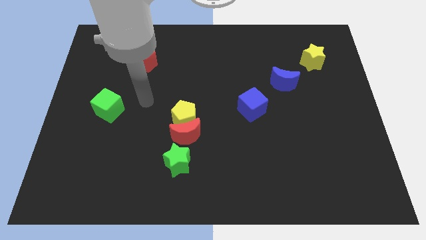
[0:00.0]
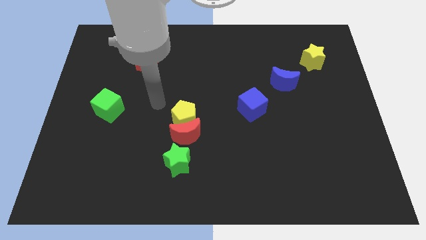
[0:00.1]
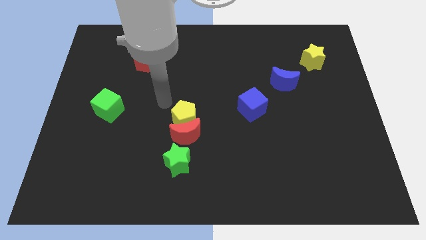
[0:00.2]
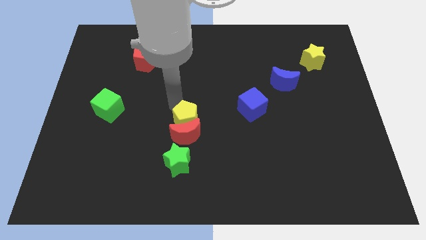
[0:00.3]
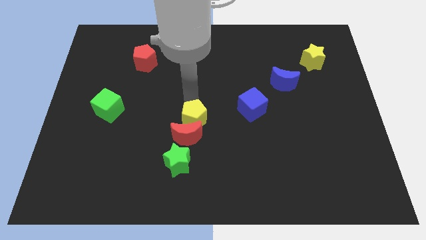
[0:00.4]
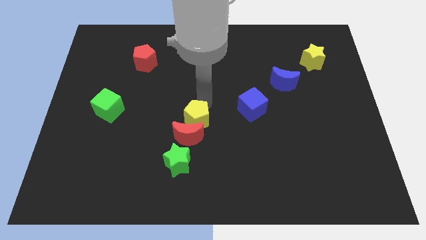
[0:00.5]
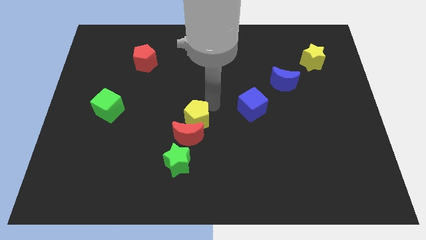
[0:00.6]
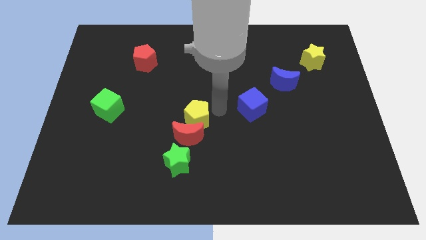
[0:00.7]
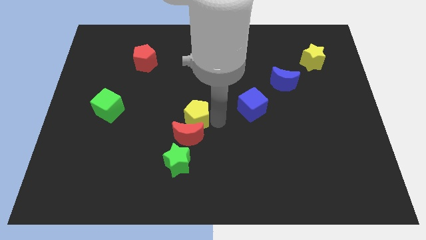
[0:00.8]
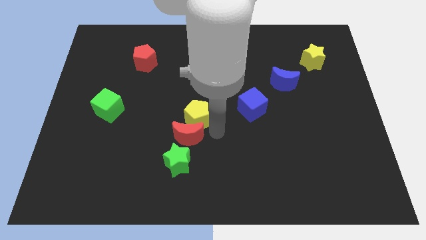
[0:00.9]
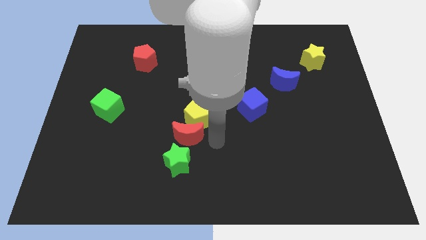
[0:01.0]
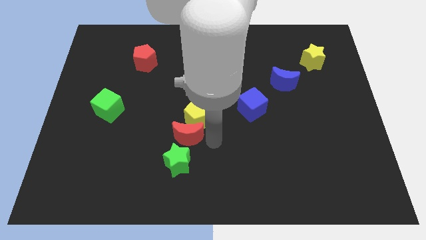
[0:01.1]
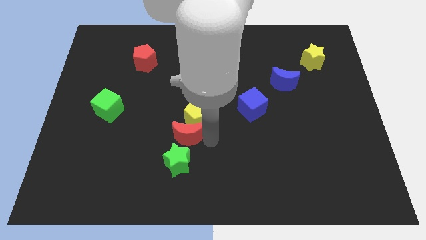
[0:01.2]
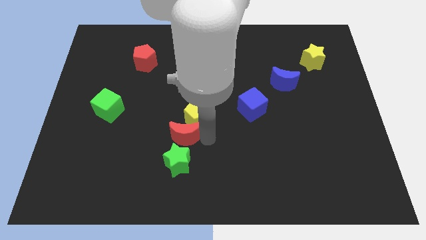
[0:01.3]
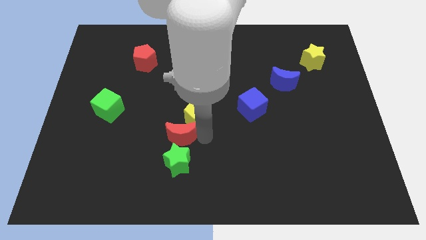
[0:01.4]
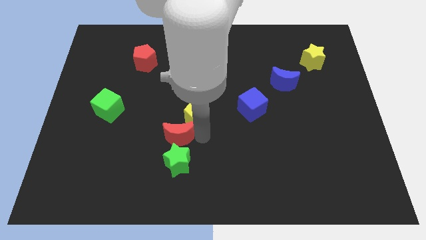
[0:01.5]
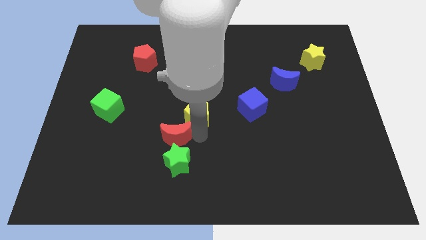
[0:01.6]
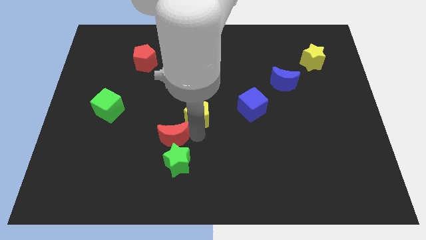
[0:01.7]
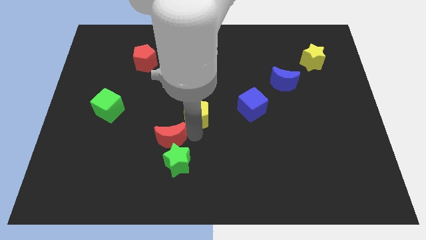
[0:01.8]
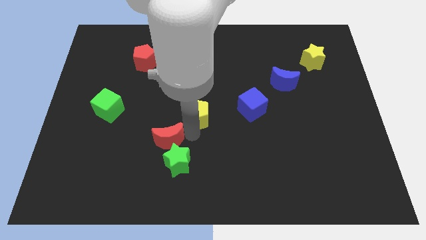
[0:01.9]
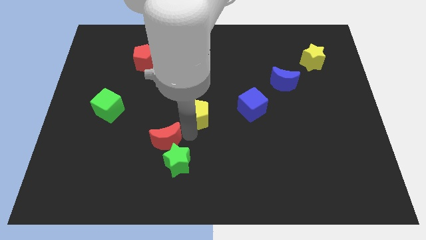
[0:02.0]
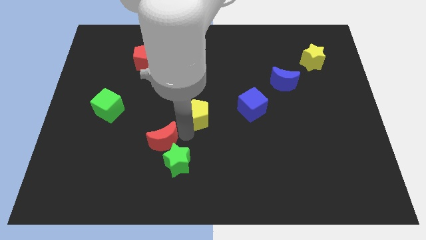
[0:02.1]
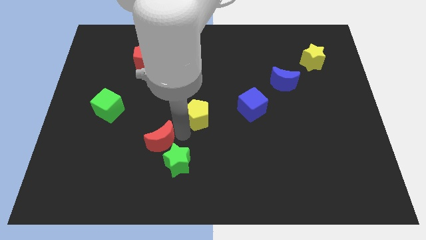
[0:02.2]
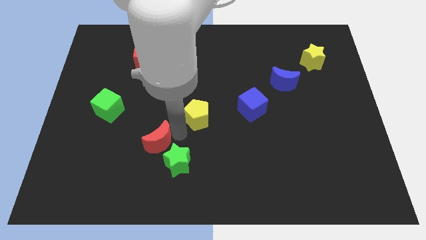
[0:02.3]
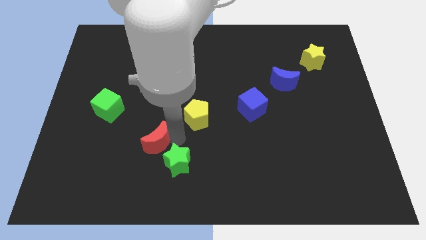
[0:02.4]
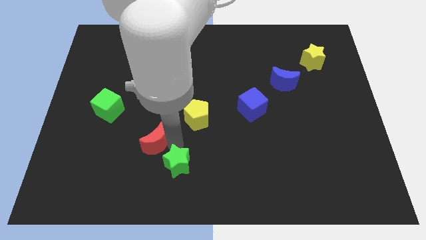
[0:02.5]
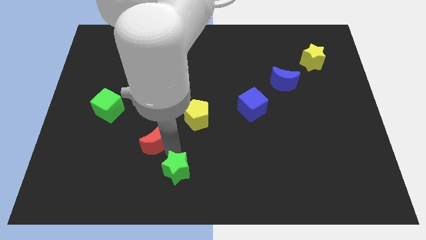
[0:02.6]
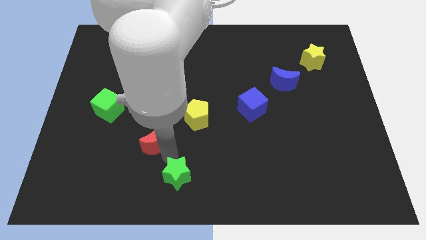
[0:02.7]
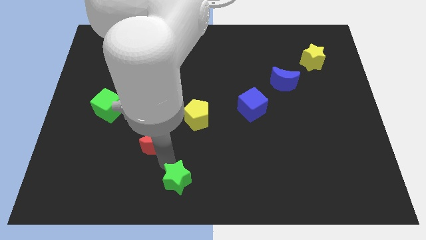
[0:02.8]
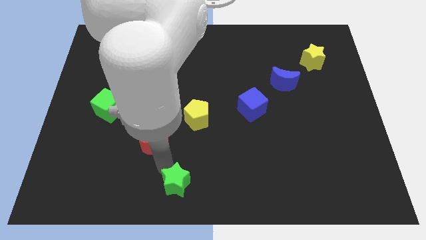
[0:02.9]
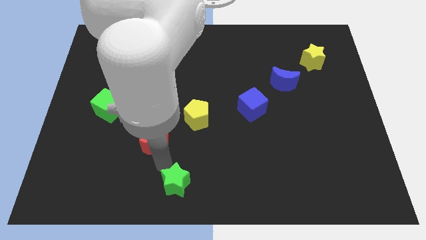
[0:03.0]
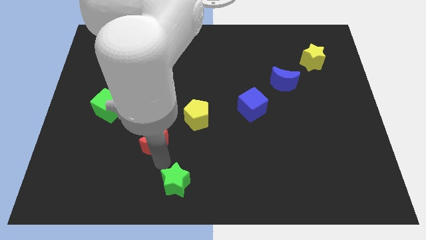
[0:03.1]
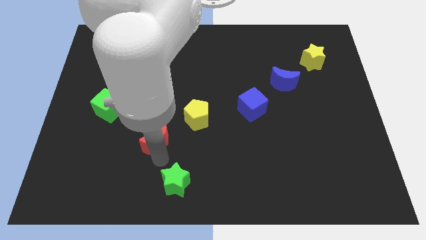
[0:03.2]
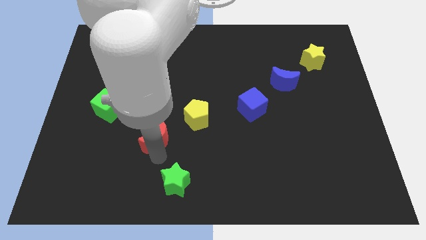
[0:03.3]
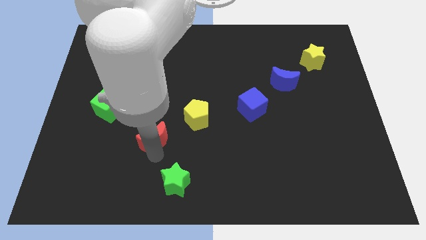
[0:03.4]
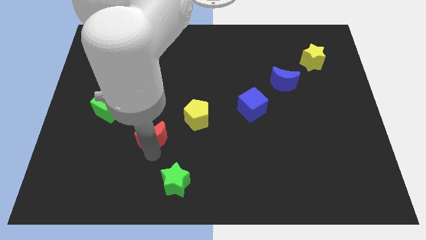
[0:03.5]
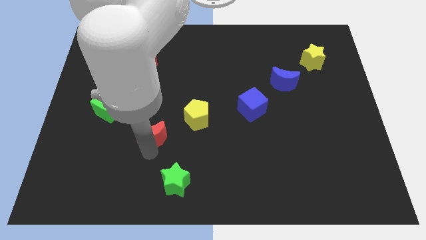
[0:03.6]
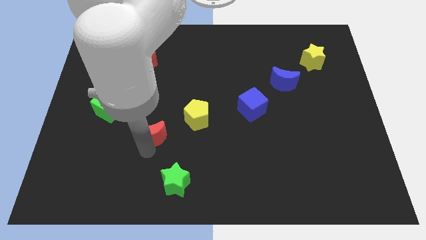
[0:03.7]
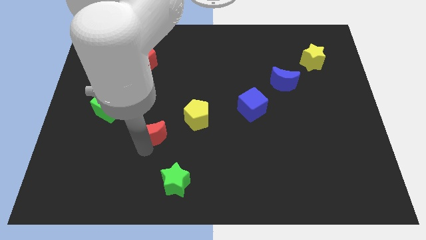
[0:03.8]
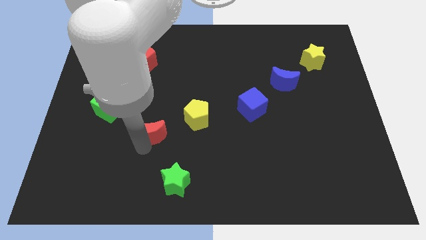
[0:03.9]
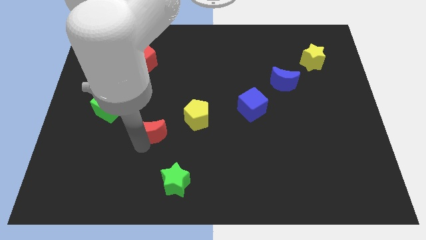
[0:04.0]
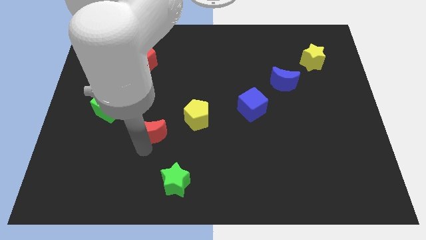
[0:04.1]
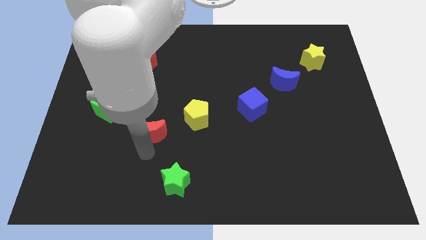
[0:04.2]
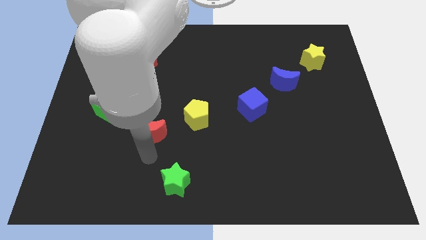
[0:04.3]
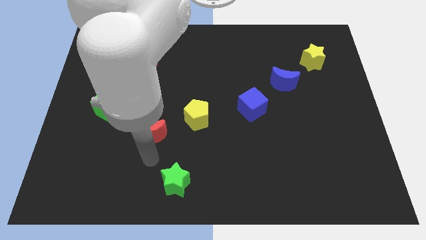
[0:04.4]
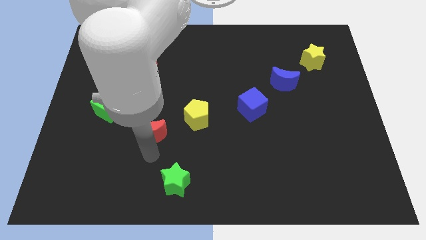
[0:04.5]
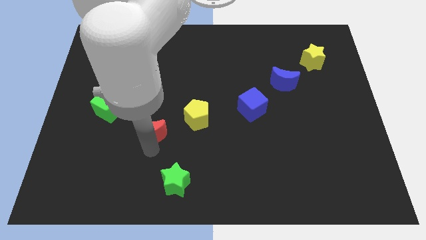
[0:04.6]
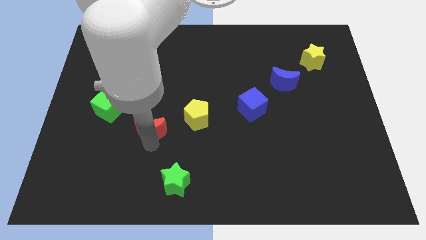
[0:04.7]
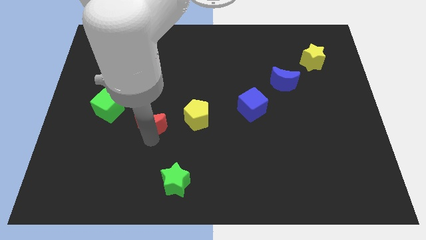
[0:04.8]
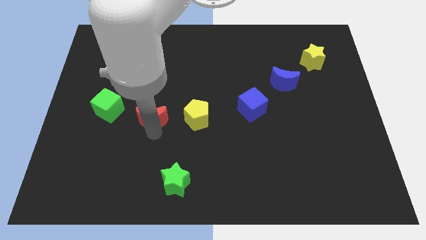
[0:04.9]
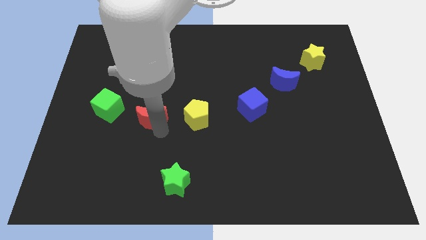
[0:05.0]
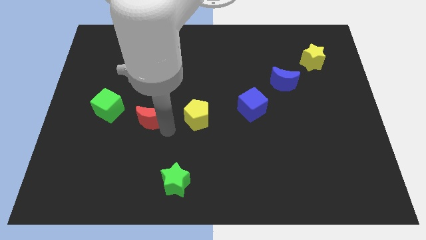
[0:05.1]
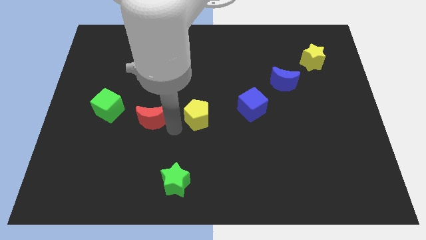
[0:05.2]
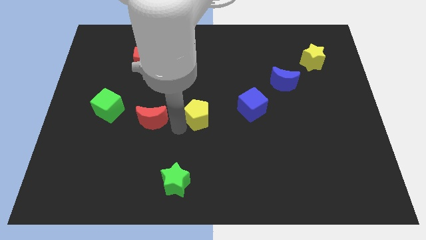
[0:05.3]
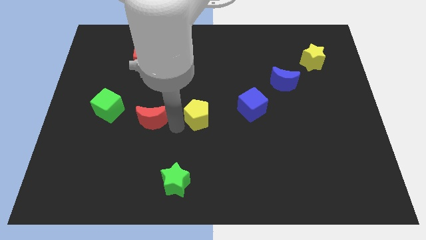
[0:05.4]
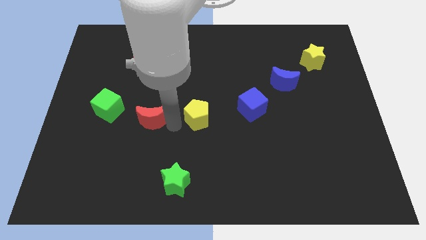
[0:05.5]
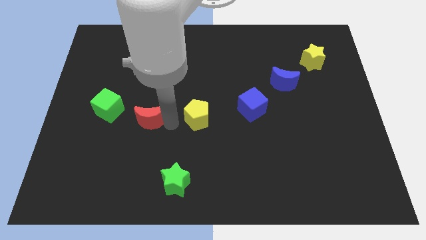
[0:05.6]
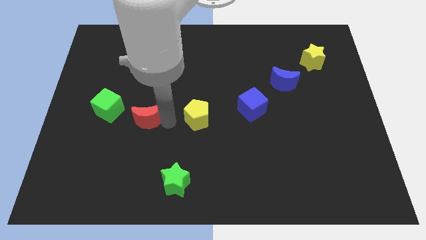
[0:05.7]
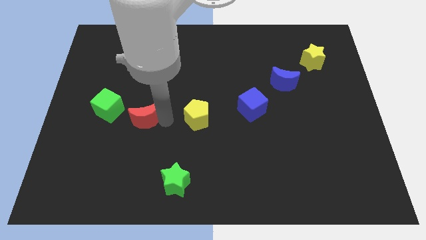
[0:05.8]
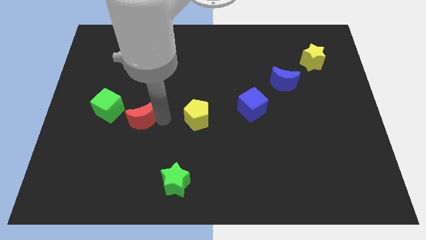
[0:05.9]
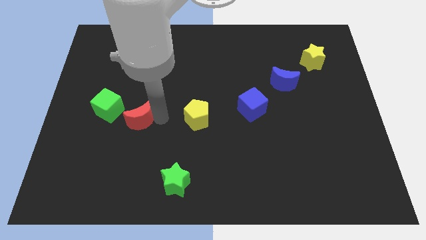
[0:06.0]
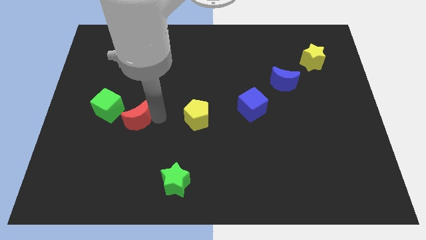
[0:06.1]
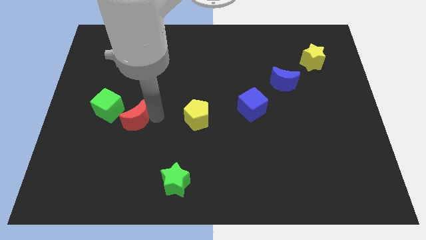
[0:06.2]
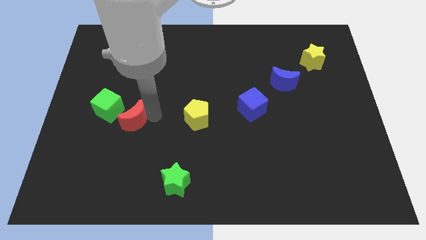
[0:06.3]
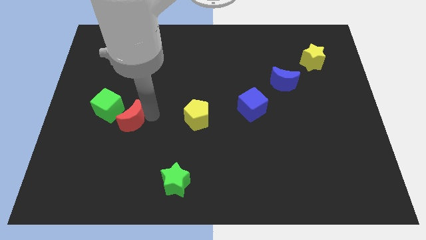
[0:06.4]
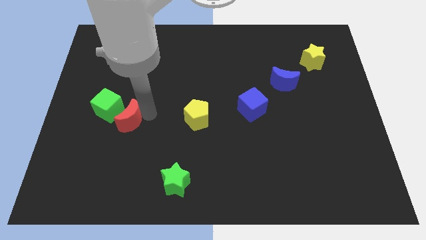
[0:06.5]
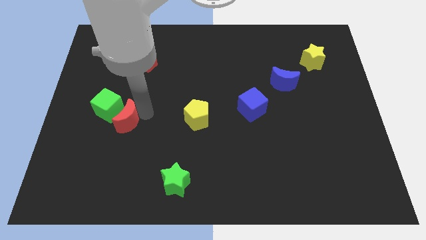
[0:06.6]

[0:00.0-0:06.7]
slide the red moon next to the green cube

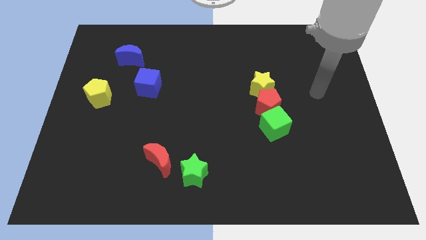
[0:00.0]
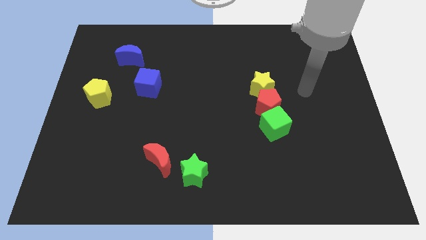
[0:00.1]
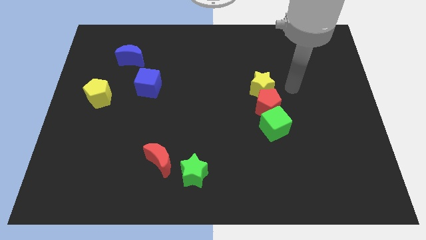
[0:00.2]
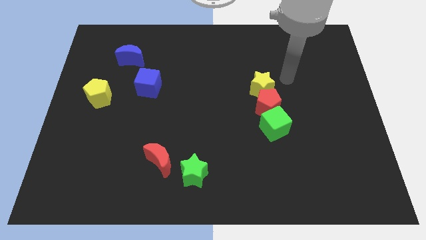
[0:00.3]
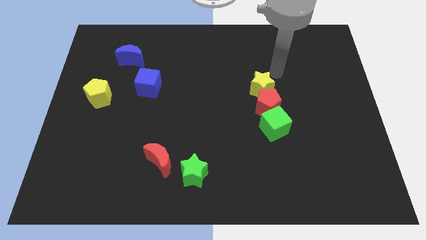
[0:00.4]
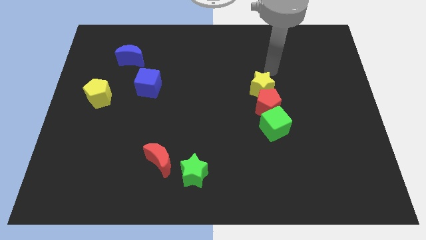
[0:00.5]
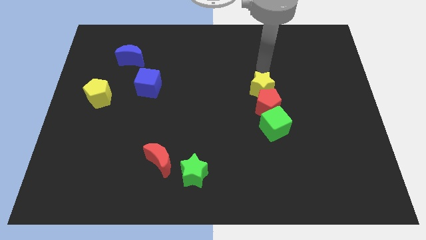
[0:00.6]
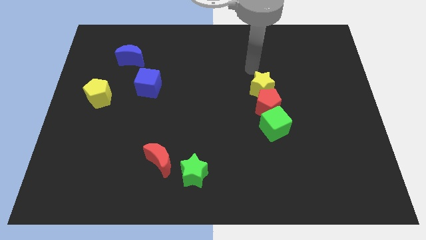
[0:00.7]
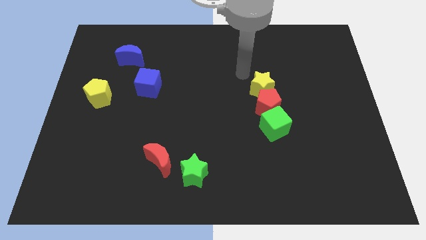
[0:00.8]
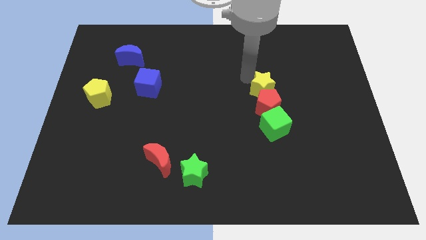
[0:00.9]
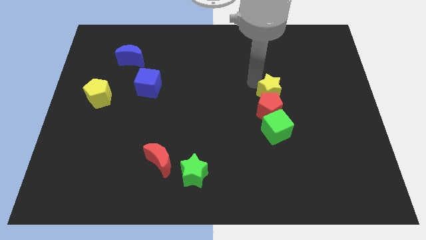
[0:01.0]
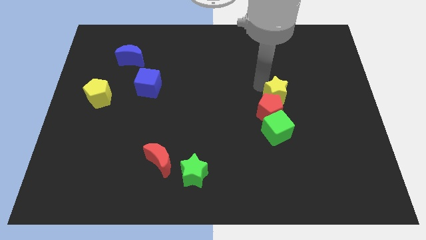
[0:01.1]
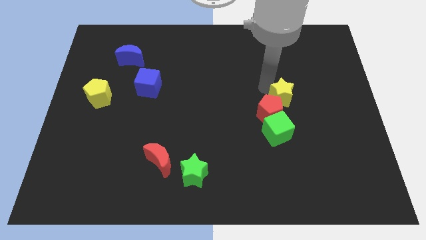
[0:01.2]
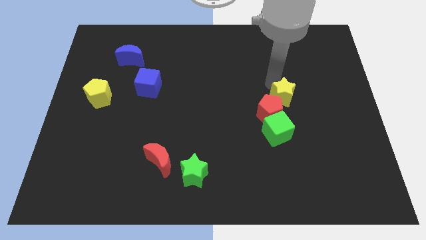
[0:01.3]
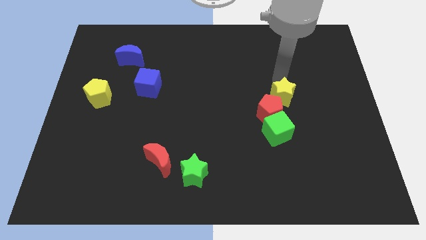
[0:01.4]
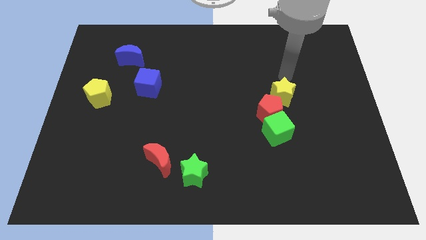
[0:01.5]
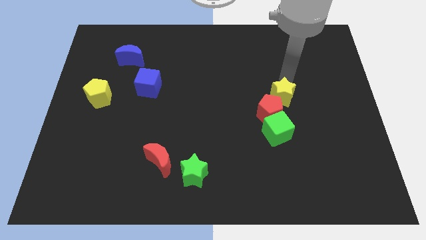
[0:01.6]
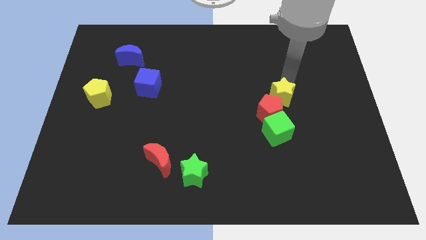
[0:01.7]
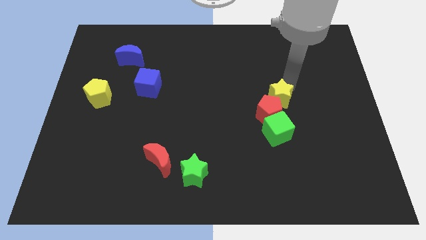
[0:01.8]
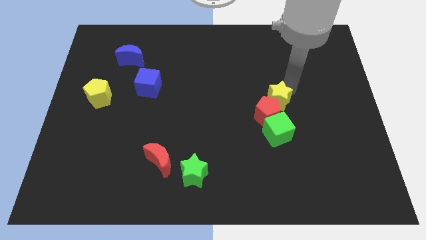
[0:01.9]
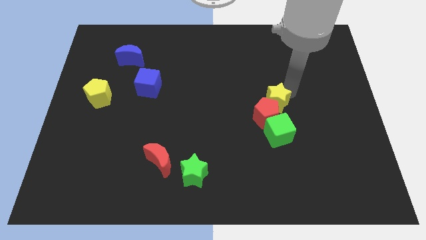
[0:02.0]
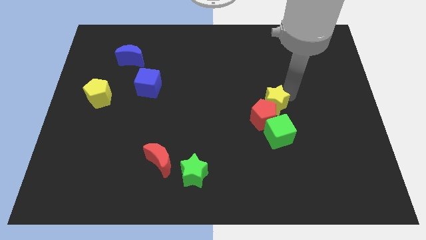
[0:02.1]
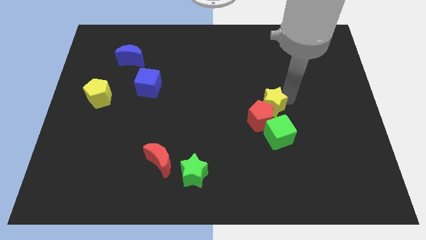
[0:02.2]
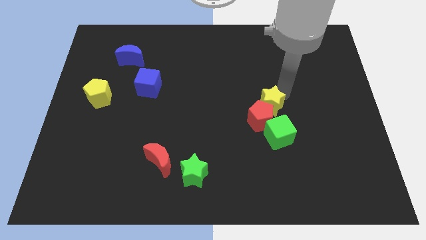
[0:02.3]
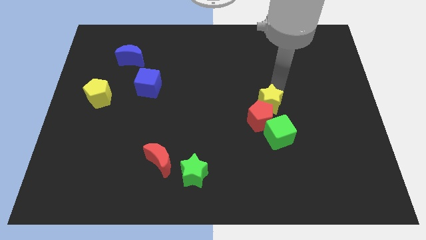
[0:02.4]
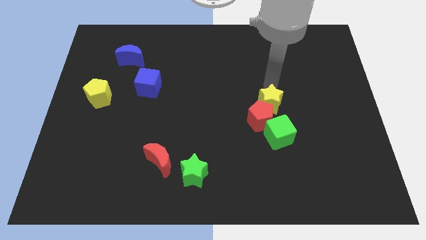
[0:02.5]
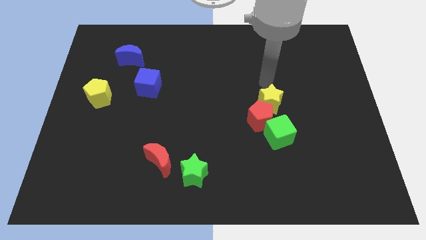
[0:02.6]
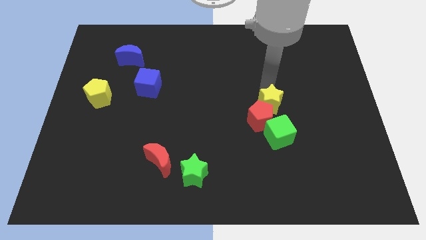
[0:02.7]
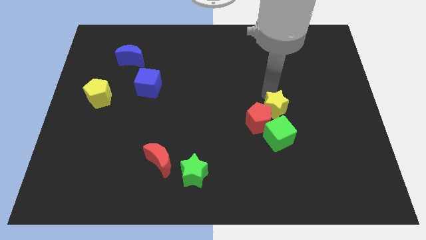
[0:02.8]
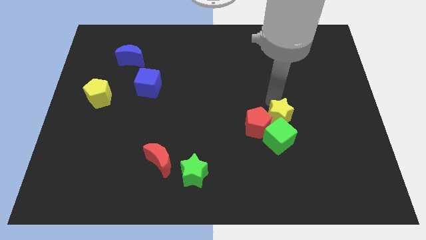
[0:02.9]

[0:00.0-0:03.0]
slide the yellow star towards the green cube
